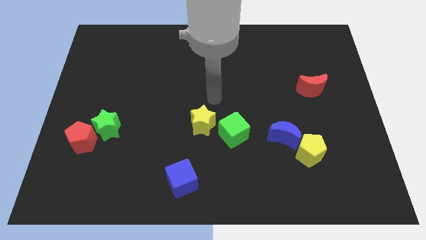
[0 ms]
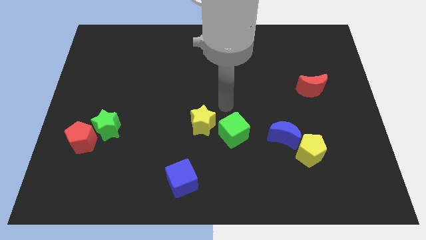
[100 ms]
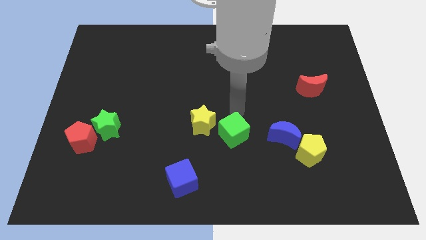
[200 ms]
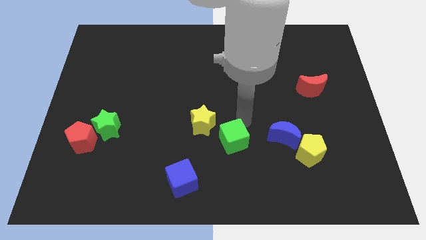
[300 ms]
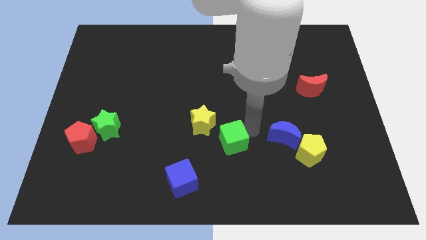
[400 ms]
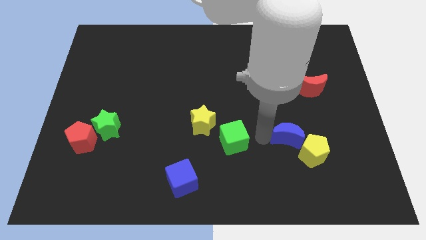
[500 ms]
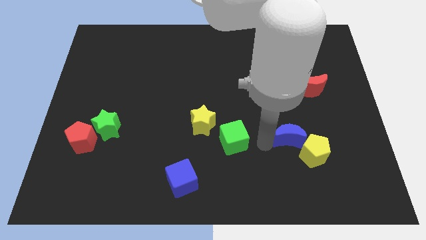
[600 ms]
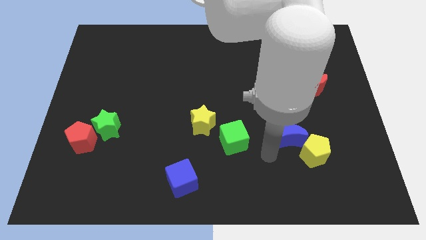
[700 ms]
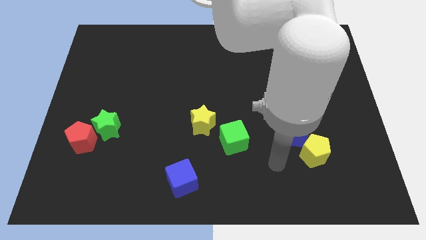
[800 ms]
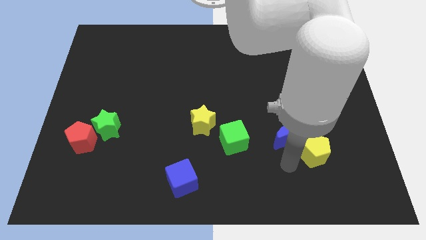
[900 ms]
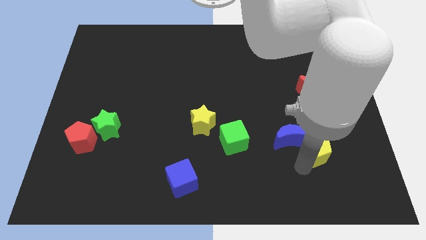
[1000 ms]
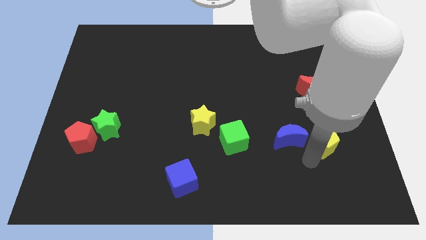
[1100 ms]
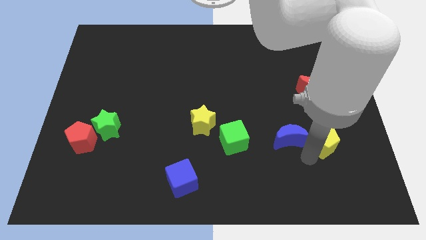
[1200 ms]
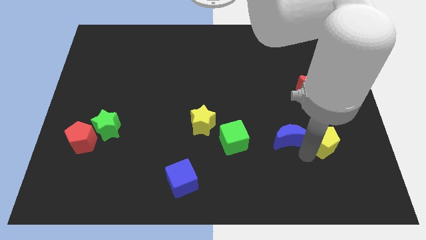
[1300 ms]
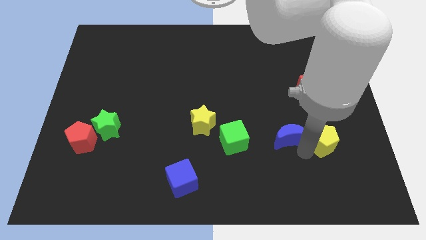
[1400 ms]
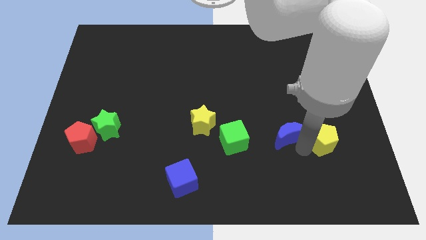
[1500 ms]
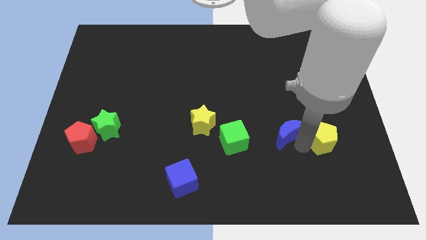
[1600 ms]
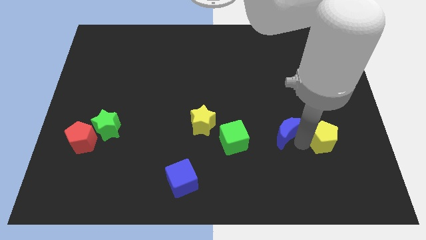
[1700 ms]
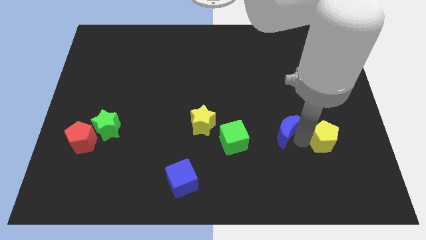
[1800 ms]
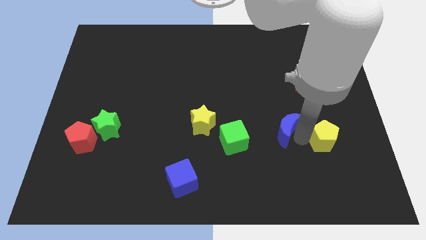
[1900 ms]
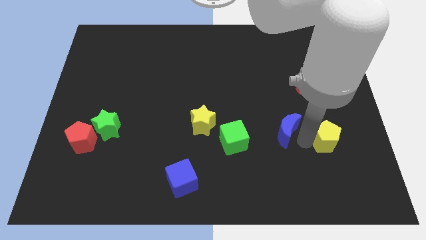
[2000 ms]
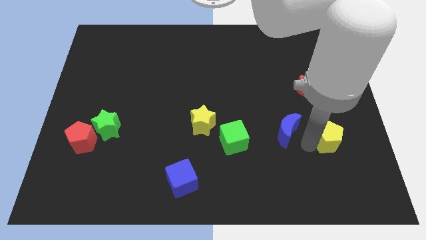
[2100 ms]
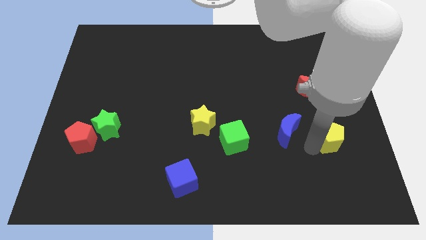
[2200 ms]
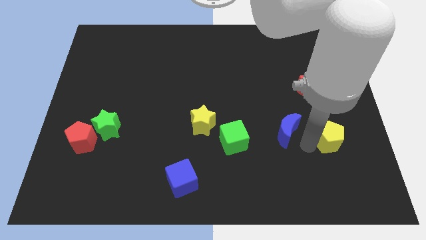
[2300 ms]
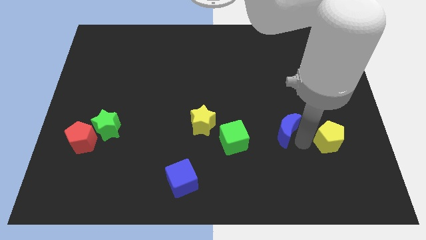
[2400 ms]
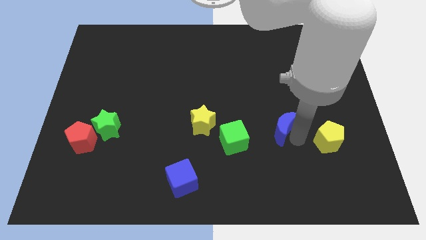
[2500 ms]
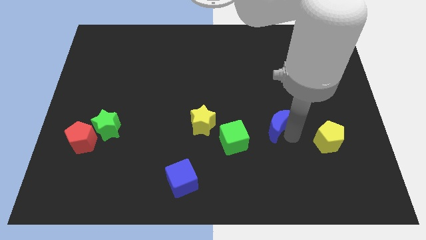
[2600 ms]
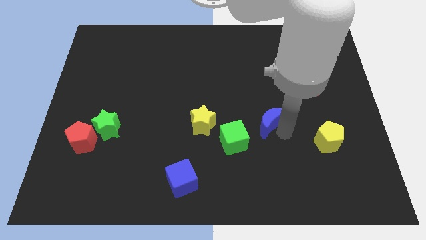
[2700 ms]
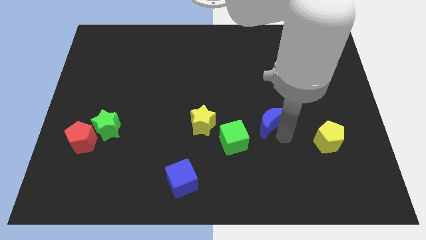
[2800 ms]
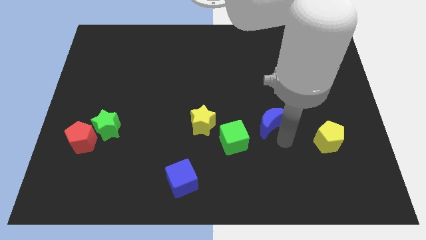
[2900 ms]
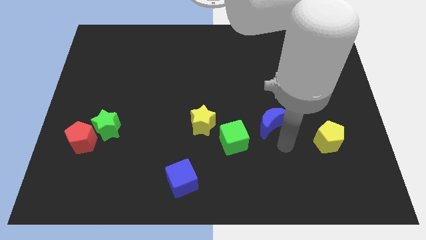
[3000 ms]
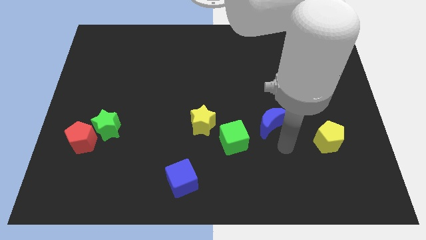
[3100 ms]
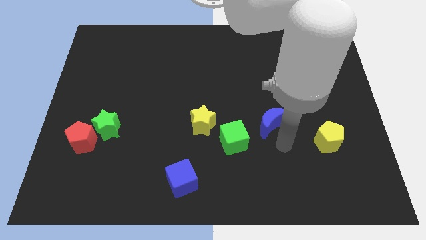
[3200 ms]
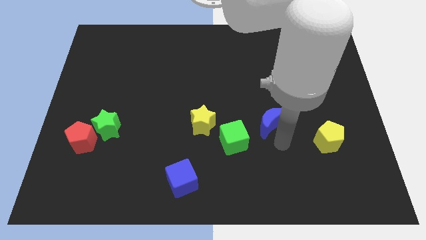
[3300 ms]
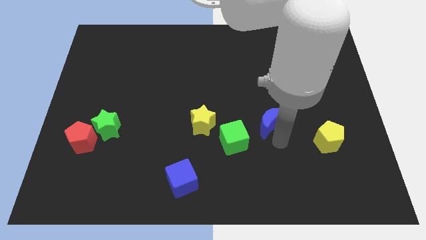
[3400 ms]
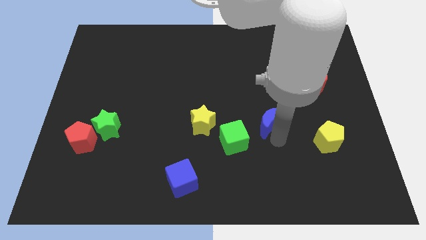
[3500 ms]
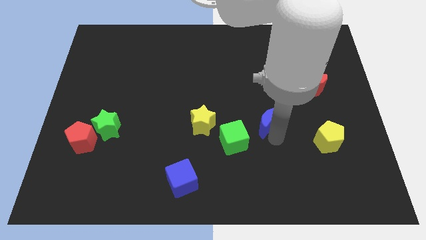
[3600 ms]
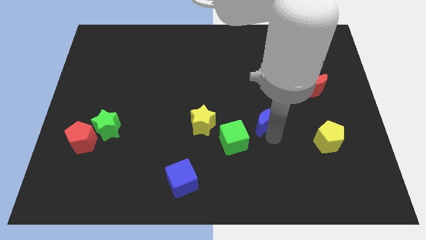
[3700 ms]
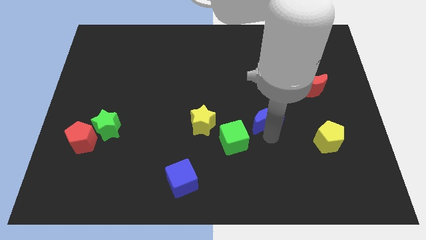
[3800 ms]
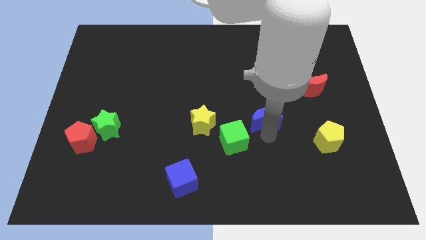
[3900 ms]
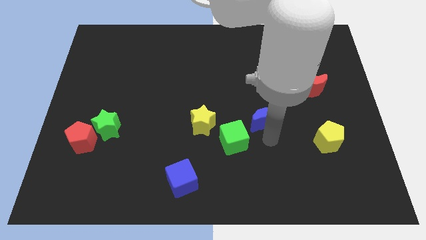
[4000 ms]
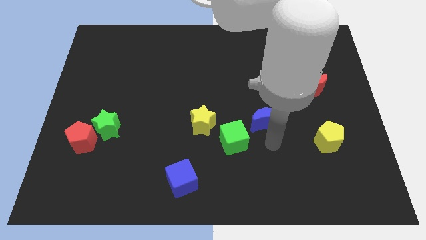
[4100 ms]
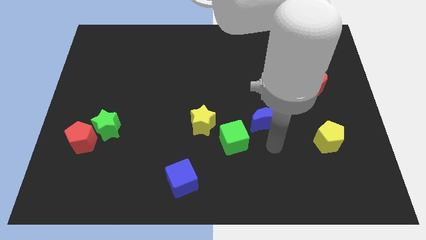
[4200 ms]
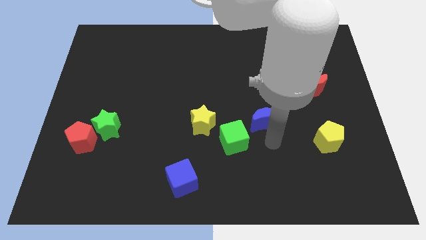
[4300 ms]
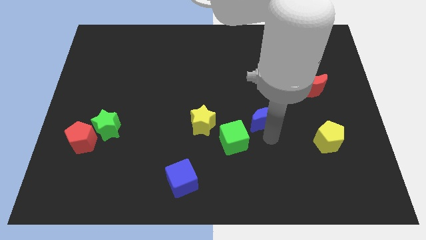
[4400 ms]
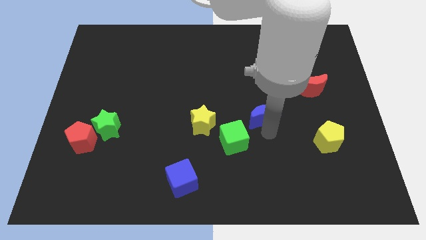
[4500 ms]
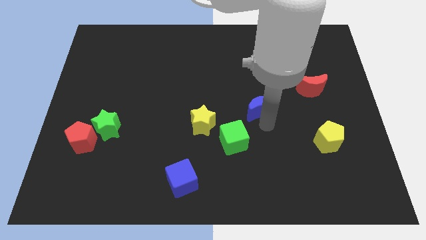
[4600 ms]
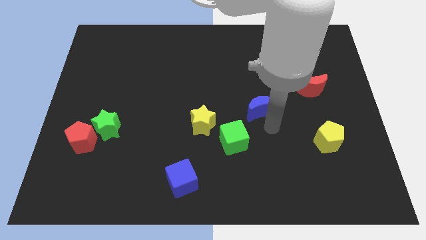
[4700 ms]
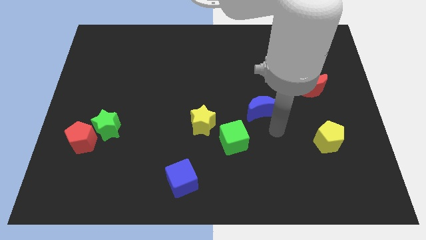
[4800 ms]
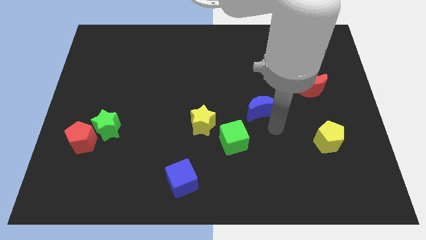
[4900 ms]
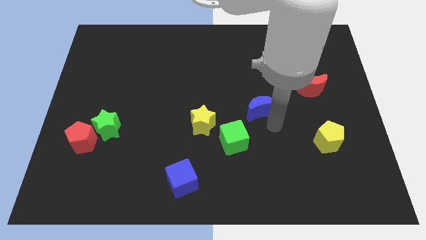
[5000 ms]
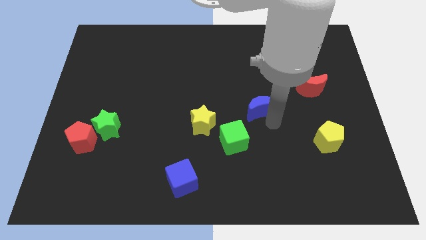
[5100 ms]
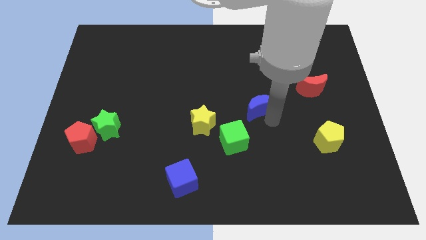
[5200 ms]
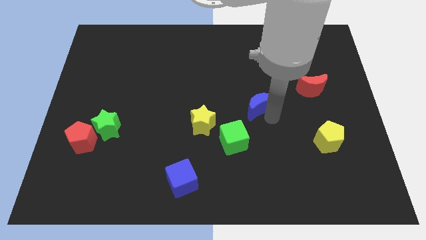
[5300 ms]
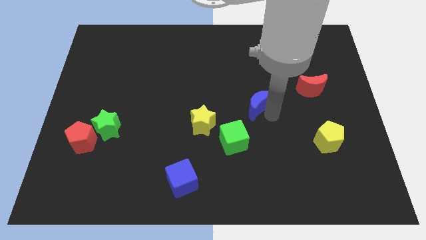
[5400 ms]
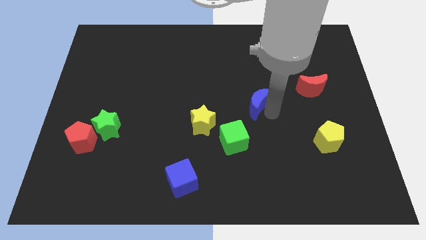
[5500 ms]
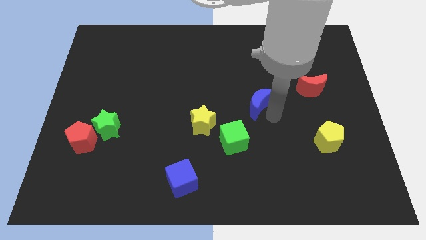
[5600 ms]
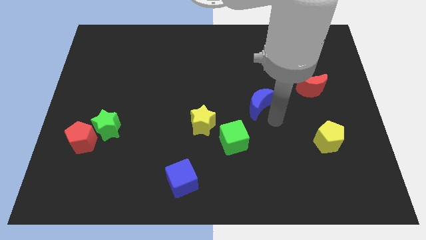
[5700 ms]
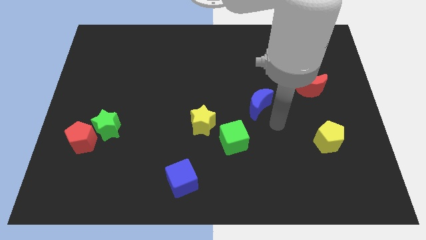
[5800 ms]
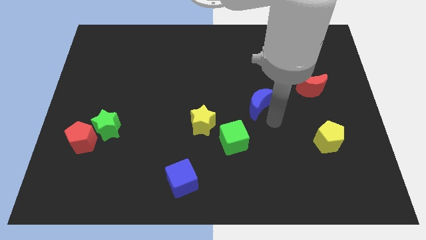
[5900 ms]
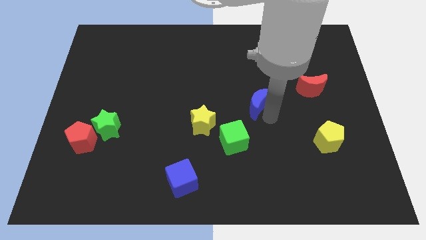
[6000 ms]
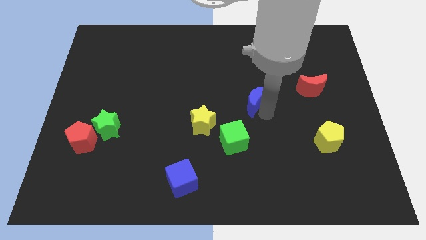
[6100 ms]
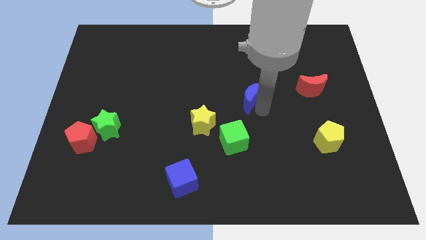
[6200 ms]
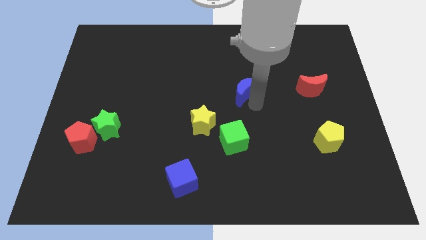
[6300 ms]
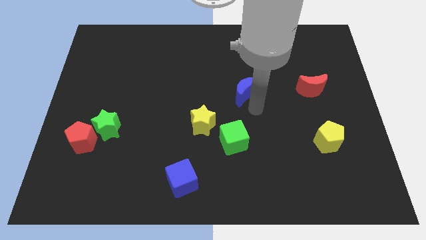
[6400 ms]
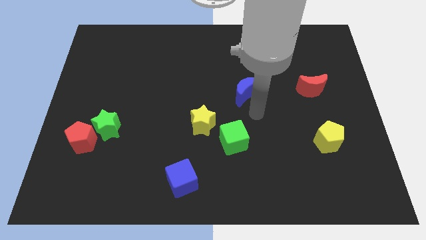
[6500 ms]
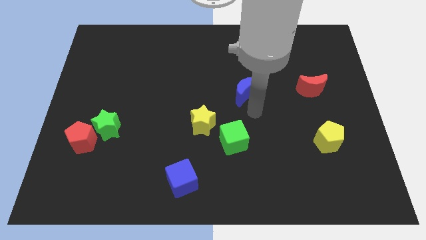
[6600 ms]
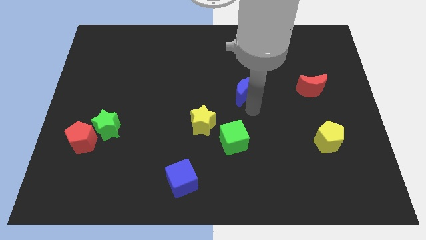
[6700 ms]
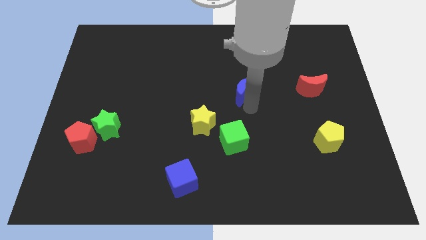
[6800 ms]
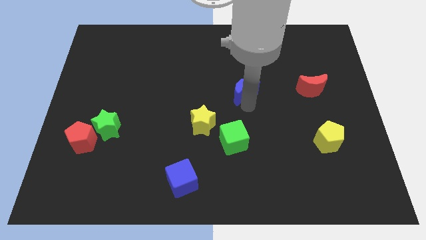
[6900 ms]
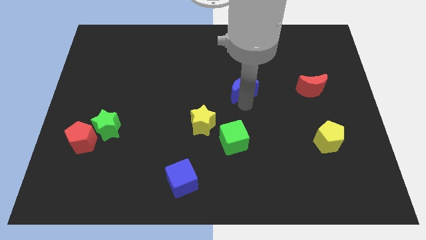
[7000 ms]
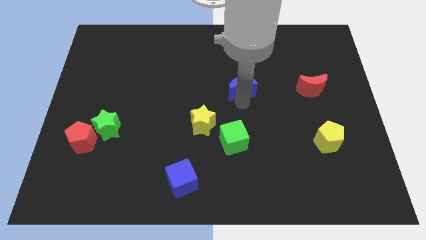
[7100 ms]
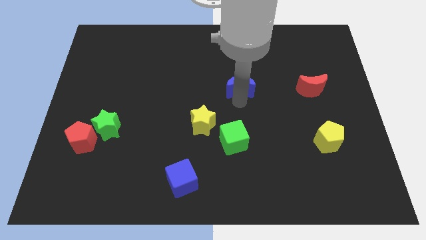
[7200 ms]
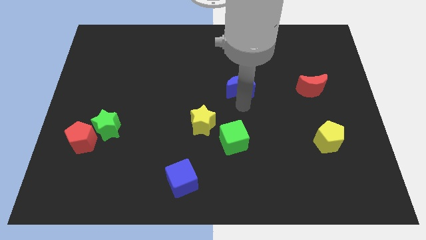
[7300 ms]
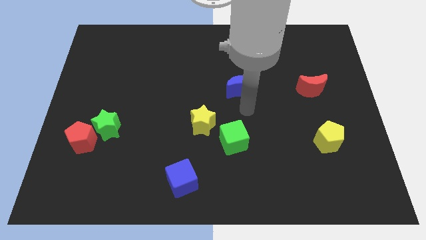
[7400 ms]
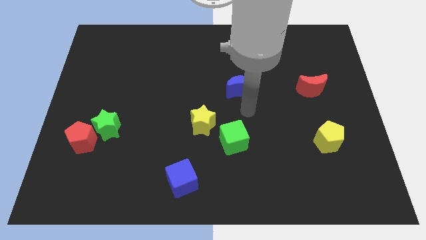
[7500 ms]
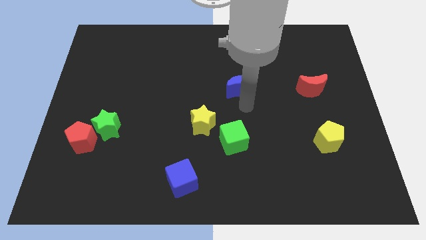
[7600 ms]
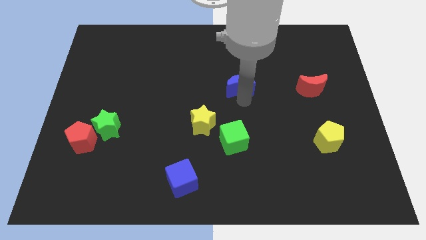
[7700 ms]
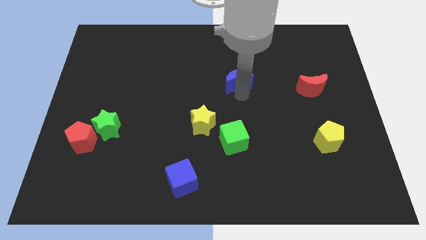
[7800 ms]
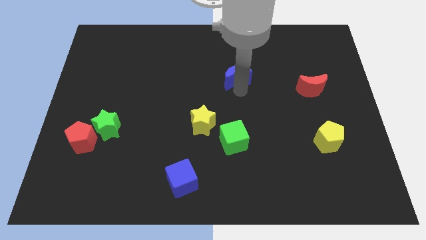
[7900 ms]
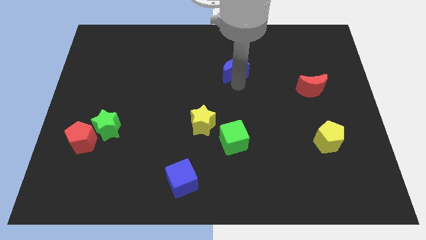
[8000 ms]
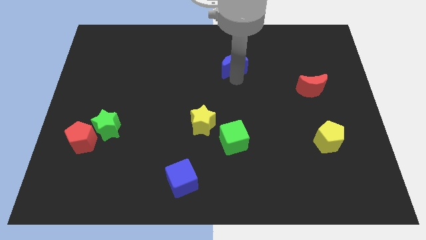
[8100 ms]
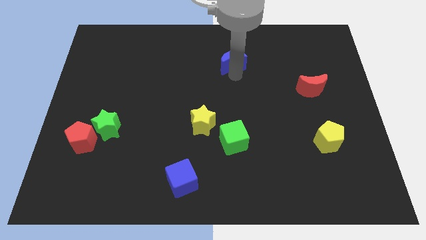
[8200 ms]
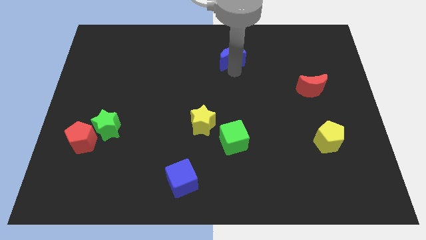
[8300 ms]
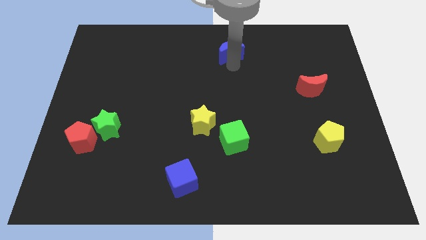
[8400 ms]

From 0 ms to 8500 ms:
push the blue moon to the top side
